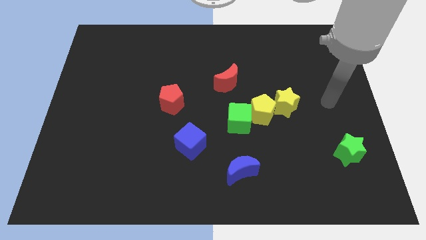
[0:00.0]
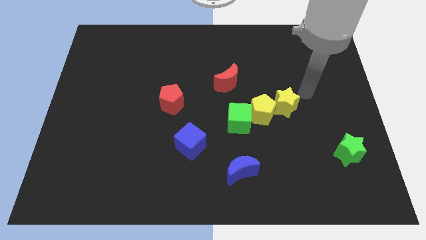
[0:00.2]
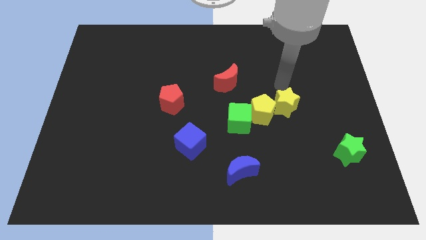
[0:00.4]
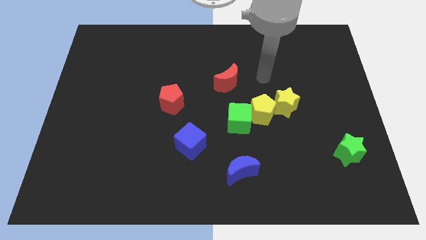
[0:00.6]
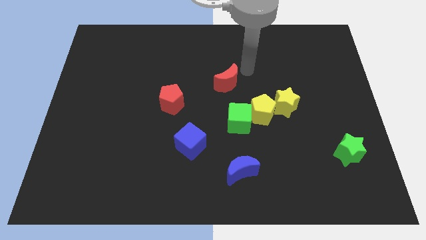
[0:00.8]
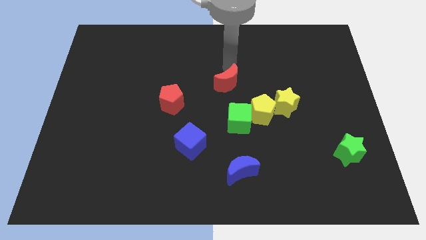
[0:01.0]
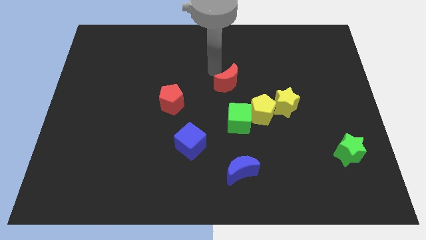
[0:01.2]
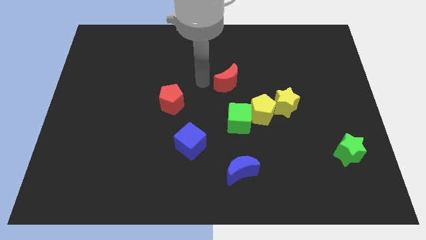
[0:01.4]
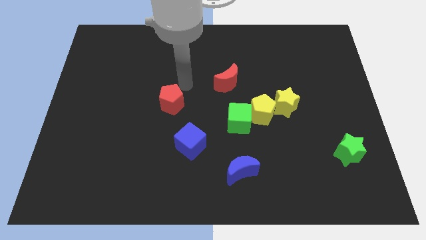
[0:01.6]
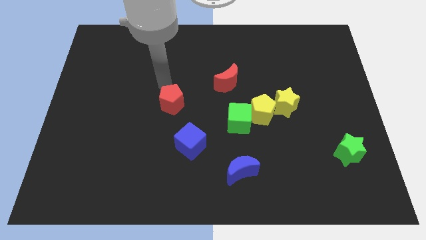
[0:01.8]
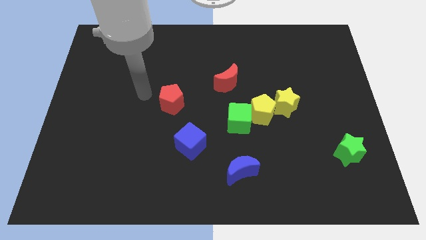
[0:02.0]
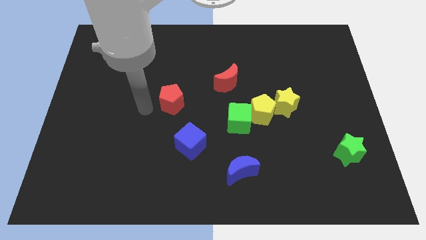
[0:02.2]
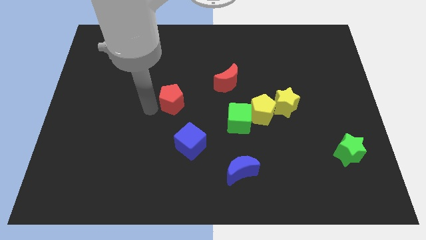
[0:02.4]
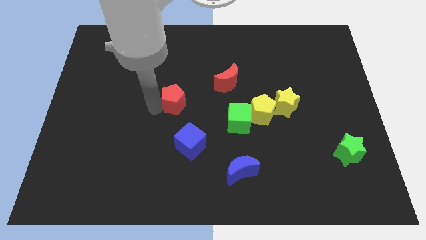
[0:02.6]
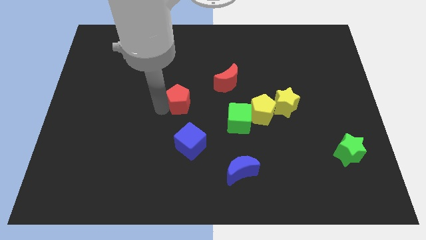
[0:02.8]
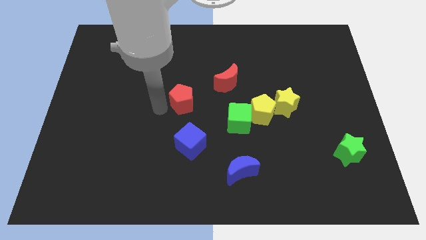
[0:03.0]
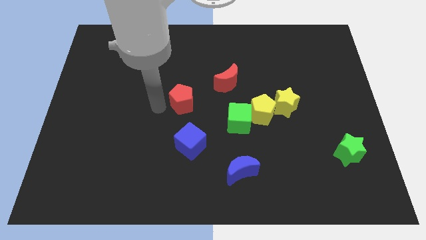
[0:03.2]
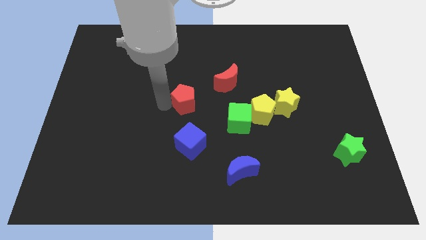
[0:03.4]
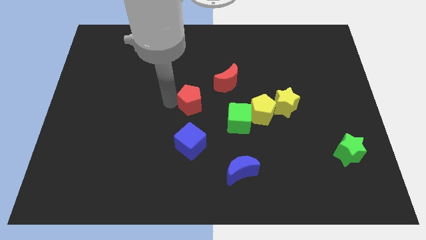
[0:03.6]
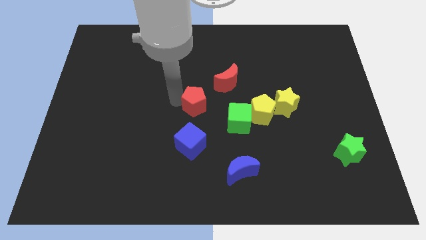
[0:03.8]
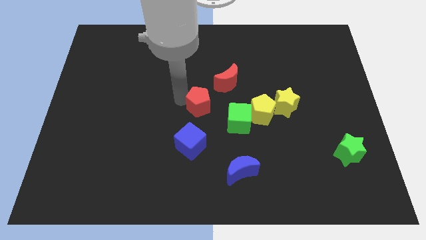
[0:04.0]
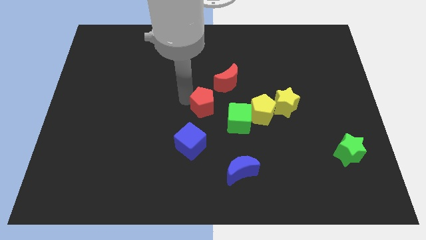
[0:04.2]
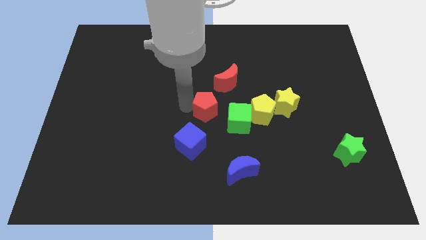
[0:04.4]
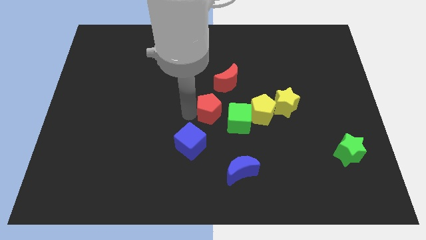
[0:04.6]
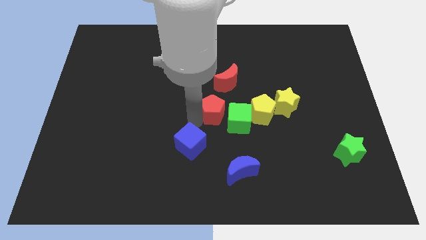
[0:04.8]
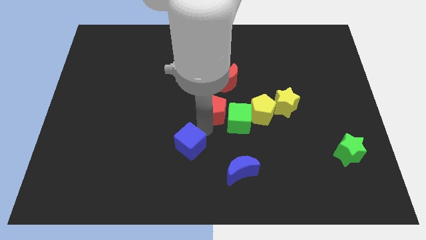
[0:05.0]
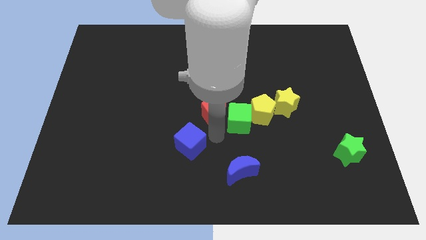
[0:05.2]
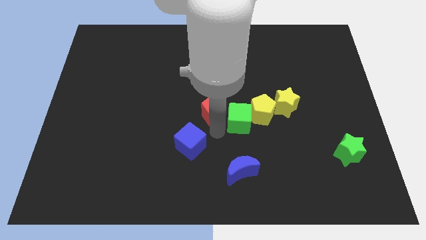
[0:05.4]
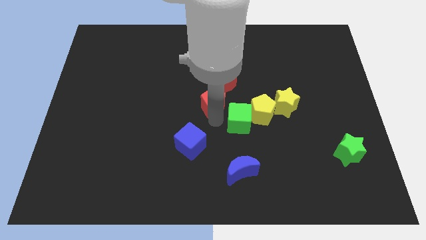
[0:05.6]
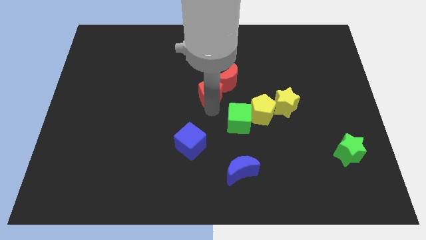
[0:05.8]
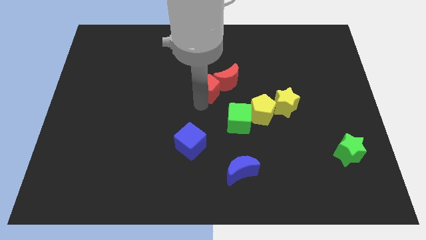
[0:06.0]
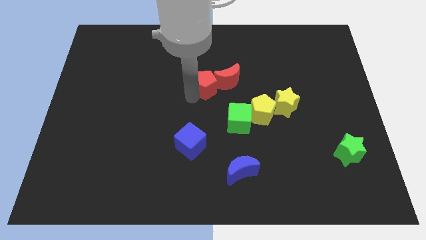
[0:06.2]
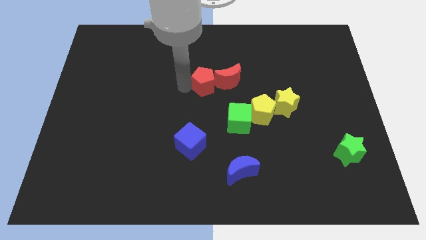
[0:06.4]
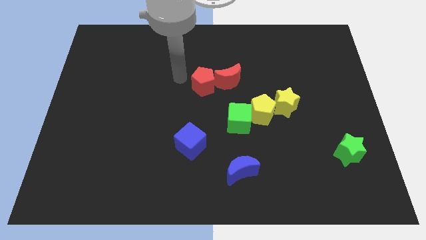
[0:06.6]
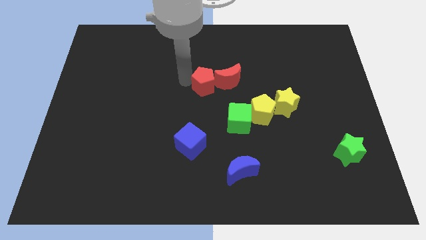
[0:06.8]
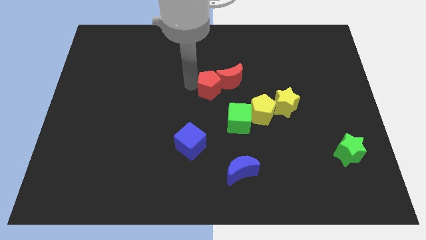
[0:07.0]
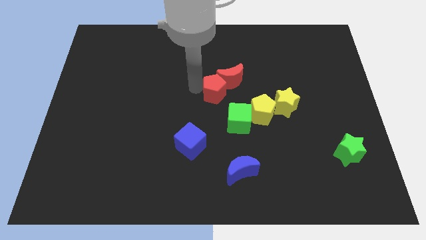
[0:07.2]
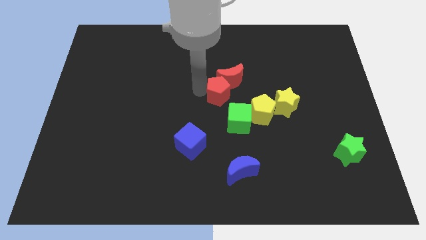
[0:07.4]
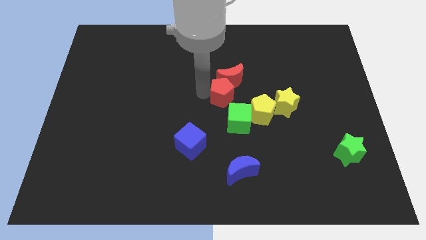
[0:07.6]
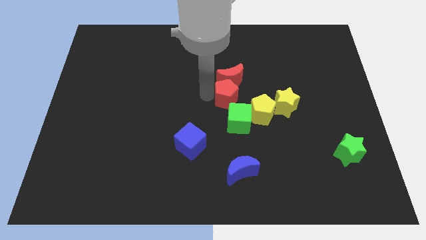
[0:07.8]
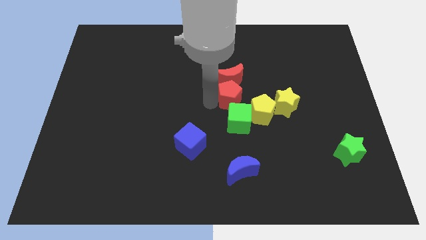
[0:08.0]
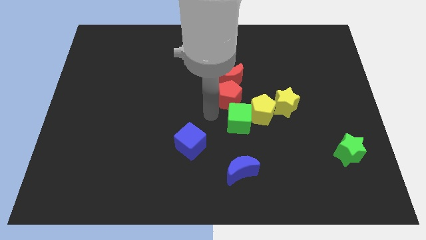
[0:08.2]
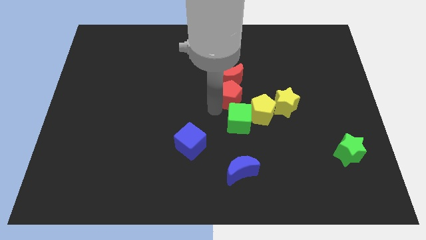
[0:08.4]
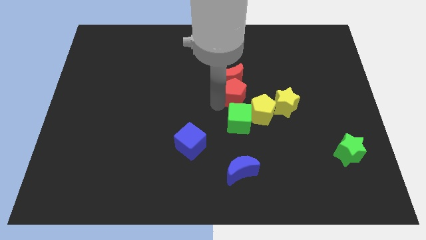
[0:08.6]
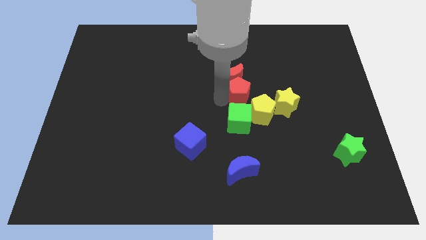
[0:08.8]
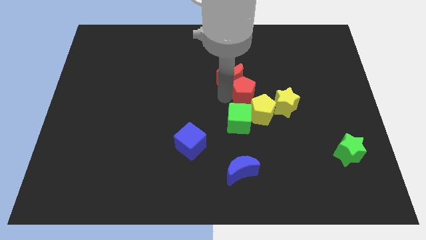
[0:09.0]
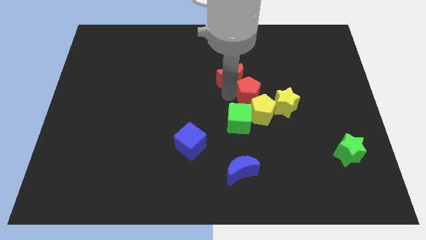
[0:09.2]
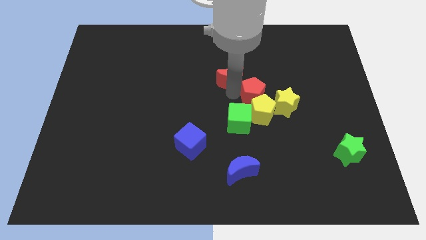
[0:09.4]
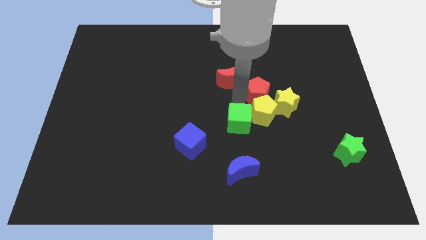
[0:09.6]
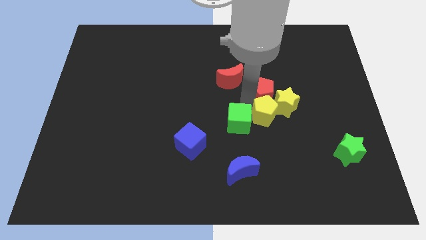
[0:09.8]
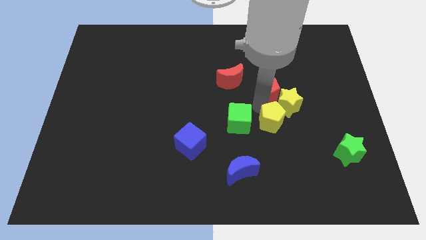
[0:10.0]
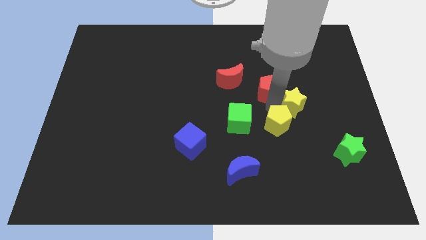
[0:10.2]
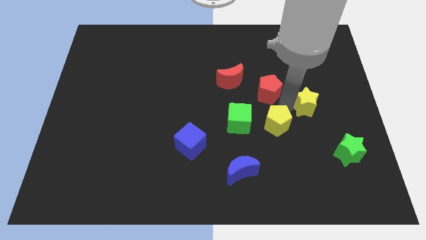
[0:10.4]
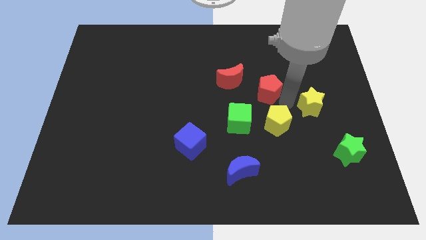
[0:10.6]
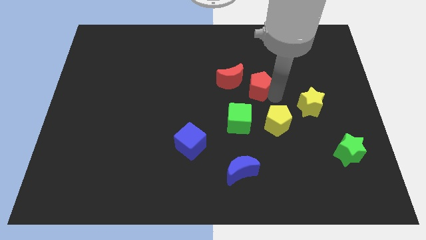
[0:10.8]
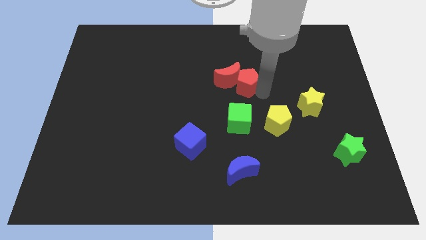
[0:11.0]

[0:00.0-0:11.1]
put the red pentagon to the top right side of the red moon

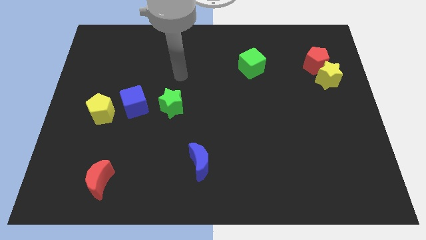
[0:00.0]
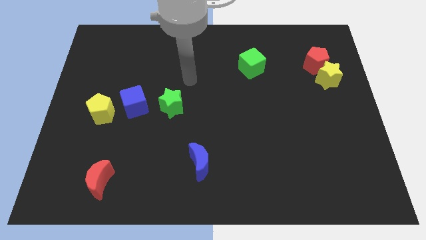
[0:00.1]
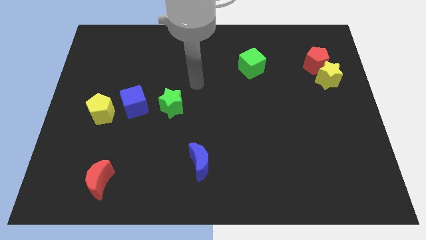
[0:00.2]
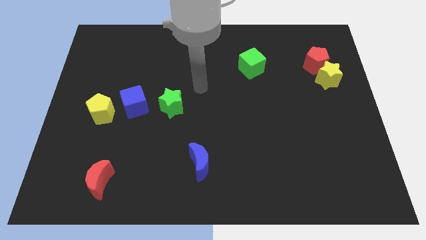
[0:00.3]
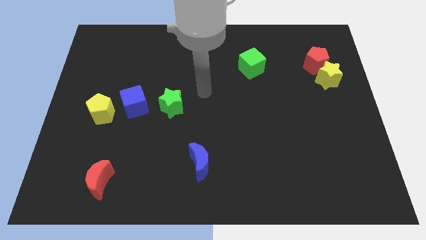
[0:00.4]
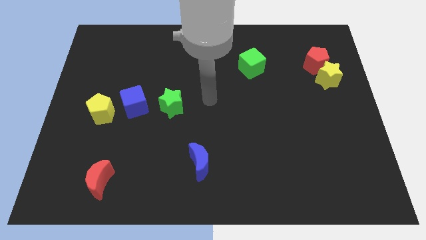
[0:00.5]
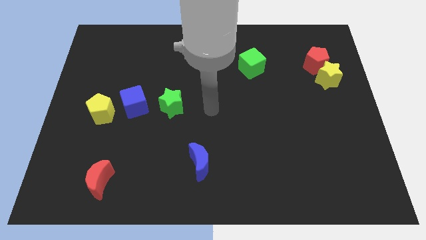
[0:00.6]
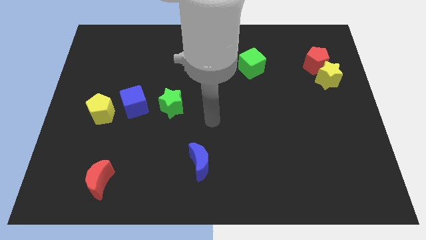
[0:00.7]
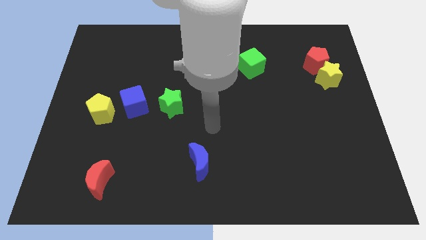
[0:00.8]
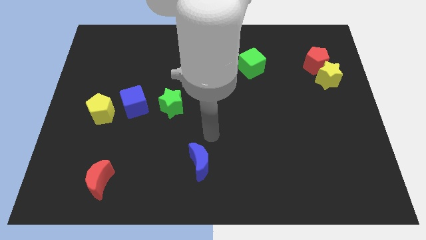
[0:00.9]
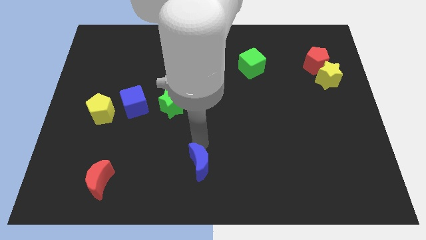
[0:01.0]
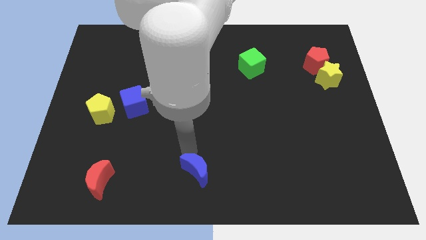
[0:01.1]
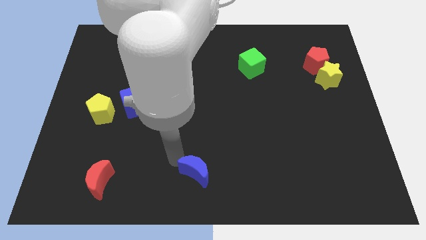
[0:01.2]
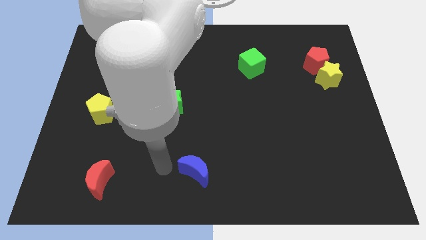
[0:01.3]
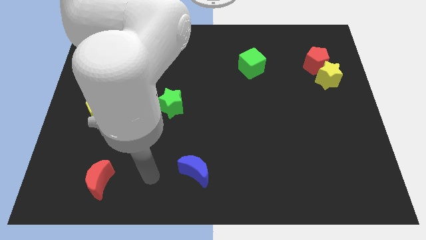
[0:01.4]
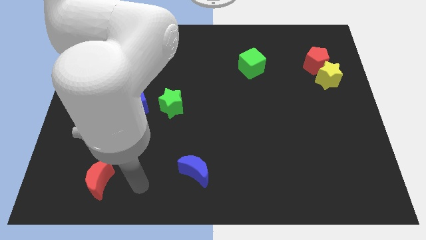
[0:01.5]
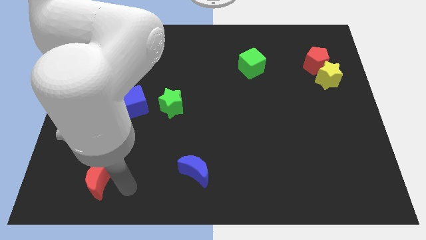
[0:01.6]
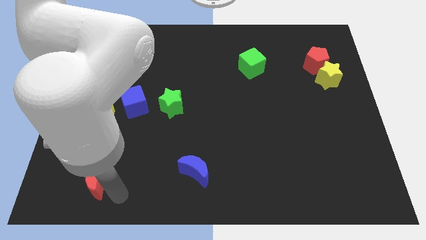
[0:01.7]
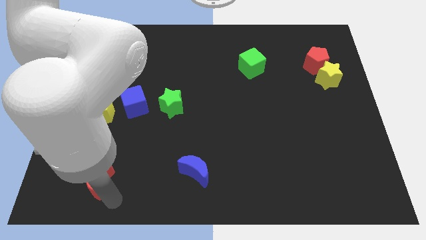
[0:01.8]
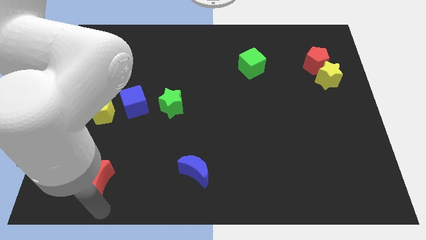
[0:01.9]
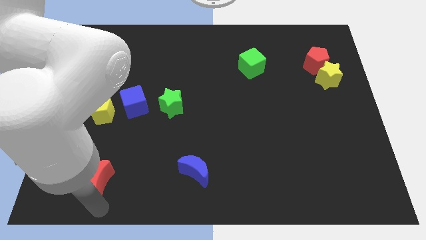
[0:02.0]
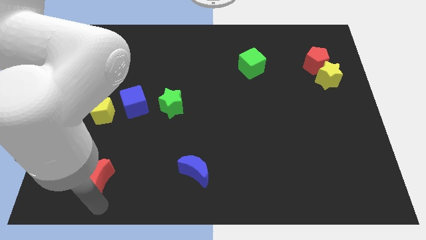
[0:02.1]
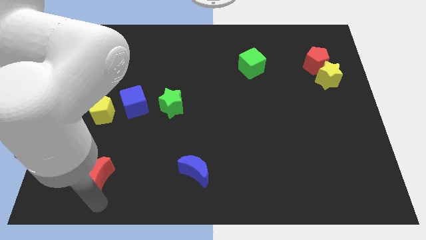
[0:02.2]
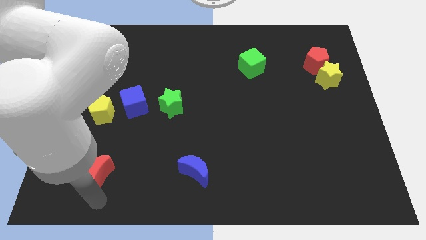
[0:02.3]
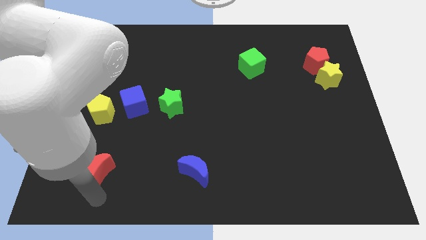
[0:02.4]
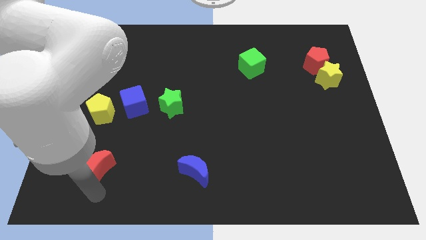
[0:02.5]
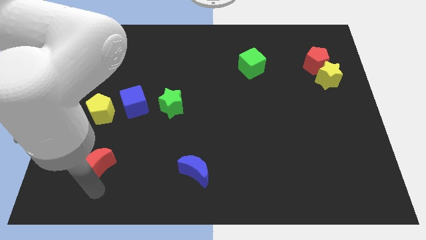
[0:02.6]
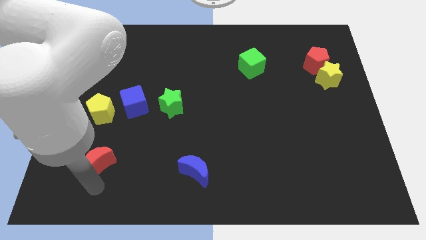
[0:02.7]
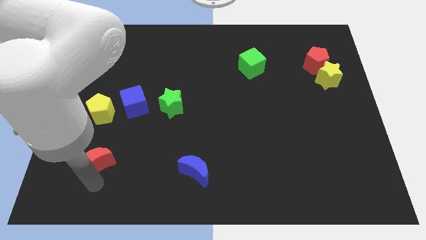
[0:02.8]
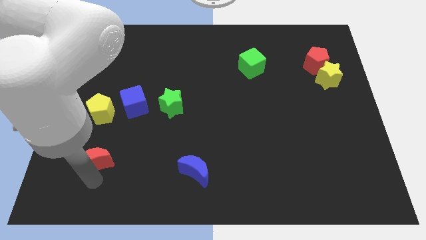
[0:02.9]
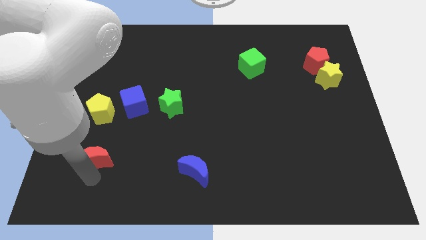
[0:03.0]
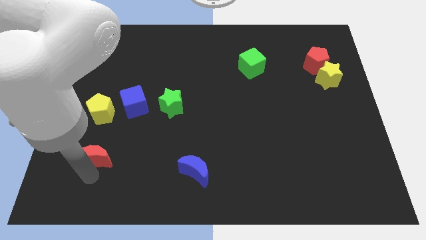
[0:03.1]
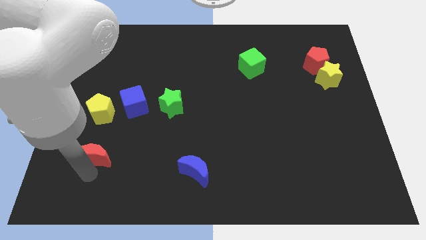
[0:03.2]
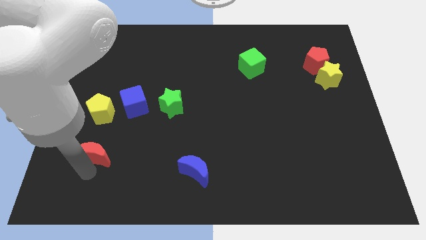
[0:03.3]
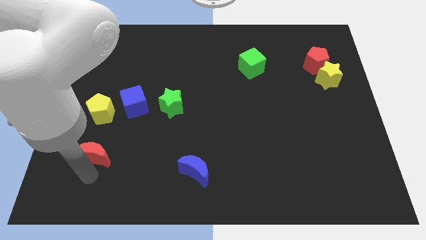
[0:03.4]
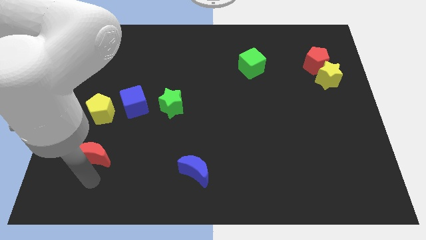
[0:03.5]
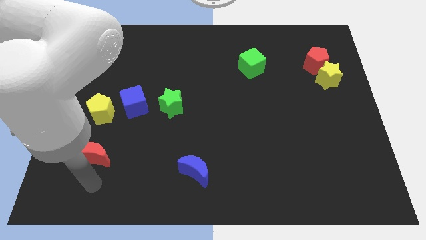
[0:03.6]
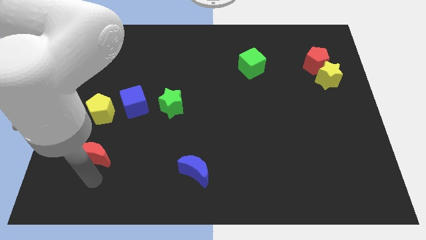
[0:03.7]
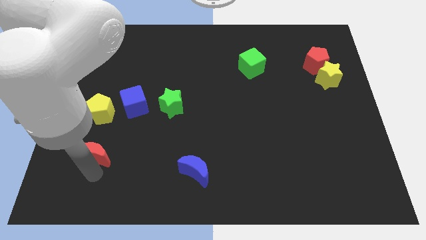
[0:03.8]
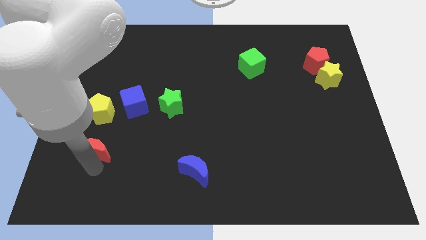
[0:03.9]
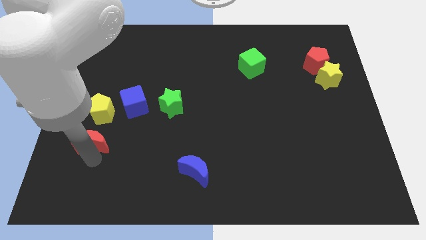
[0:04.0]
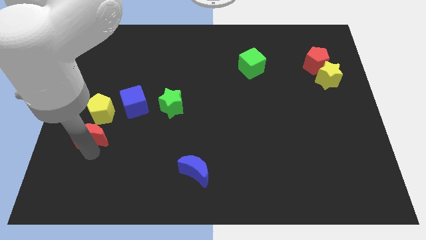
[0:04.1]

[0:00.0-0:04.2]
put the red moon to the bottom left side of the blue cube
